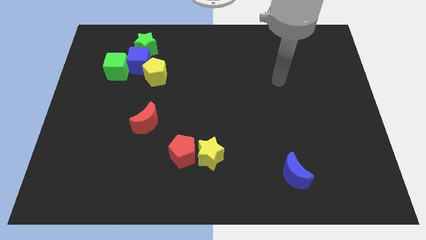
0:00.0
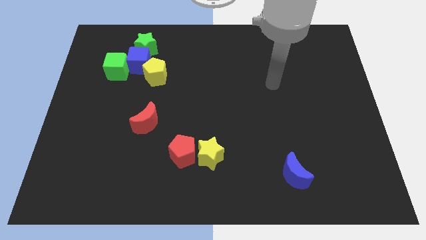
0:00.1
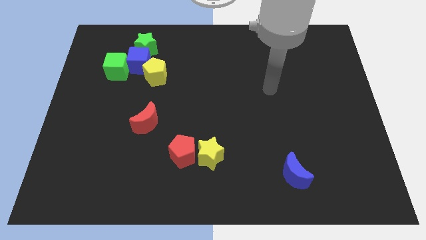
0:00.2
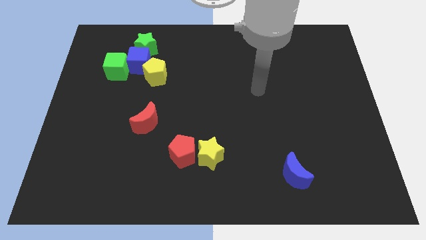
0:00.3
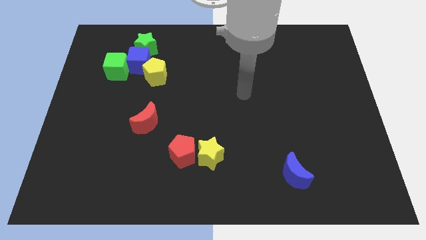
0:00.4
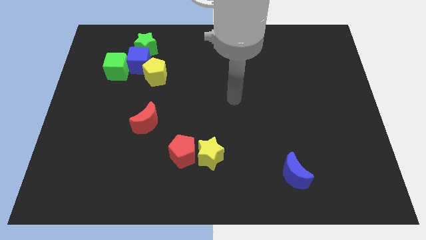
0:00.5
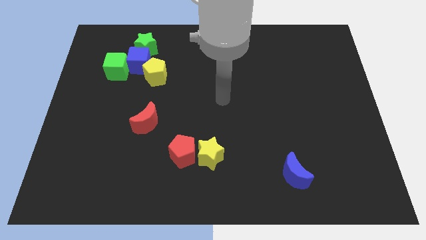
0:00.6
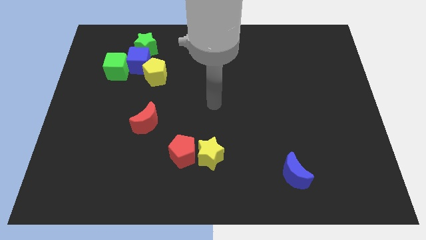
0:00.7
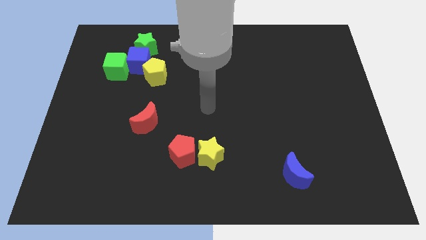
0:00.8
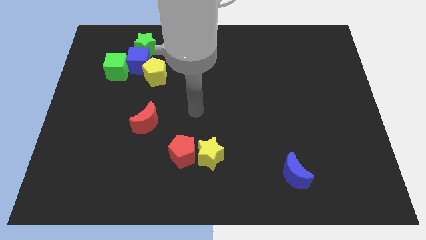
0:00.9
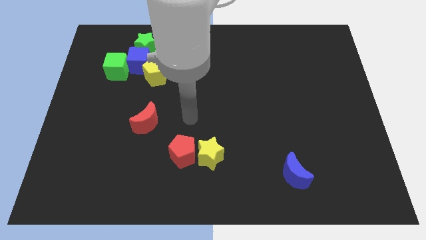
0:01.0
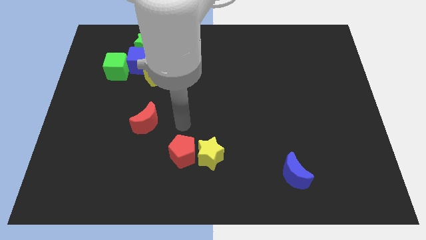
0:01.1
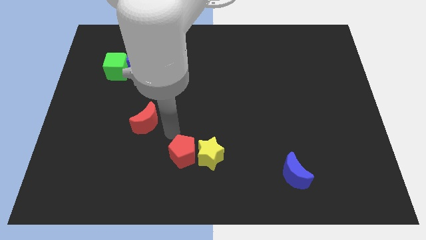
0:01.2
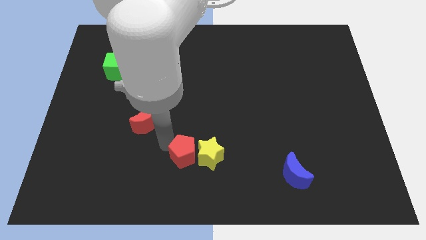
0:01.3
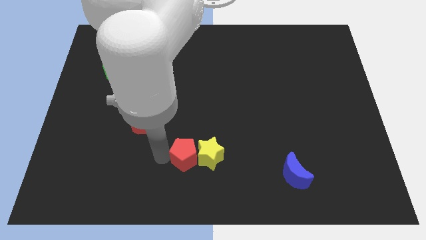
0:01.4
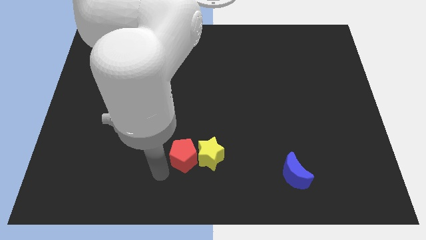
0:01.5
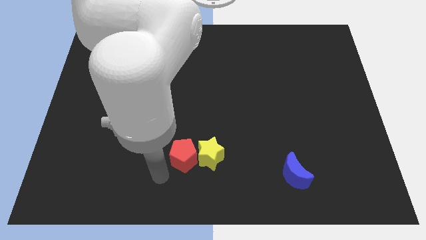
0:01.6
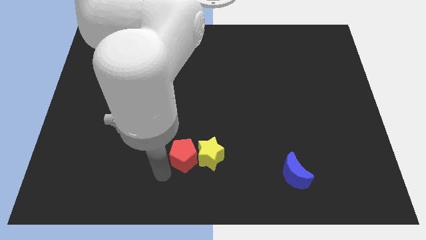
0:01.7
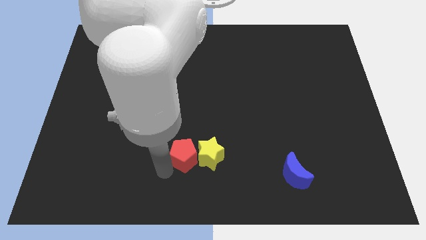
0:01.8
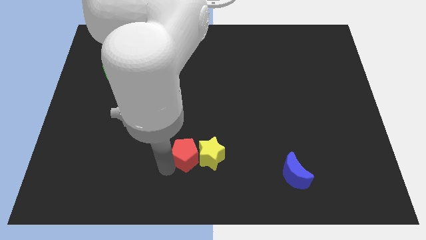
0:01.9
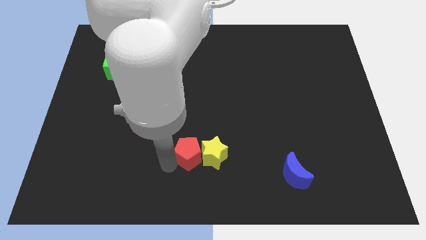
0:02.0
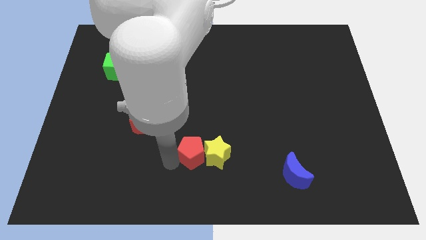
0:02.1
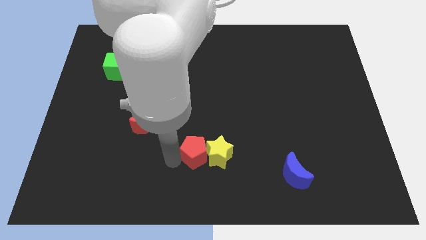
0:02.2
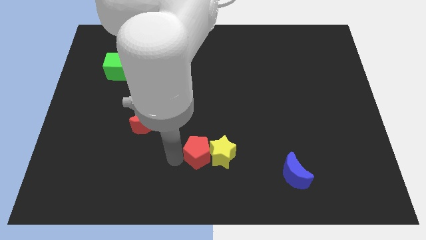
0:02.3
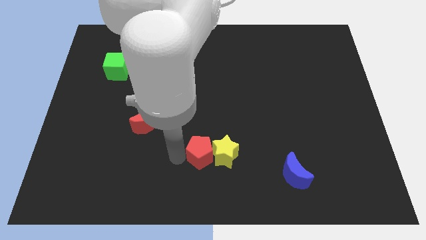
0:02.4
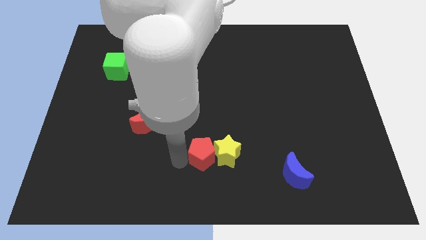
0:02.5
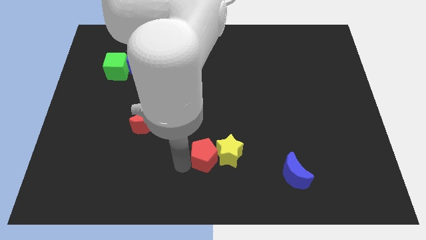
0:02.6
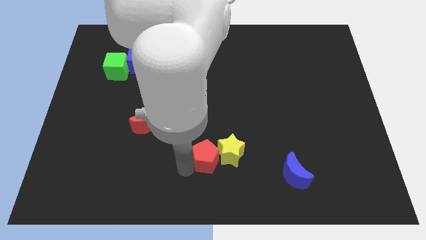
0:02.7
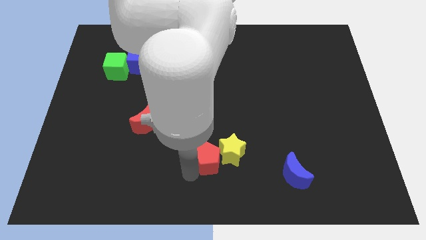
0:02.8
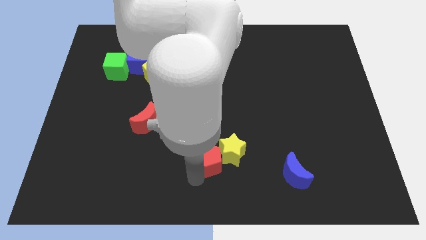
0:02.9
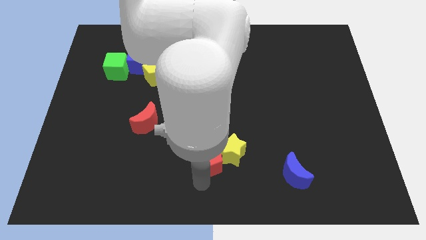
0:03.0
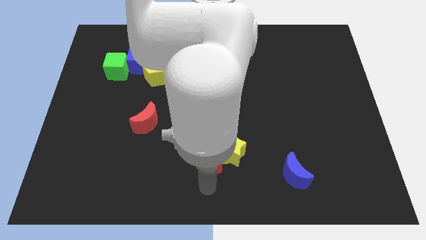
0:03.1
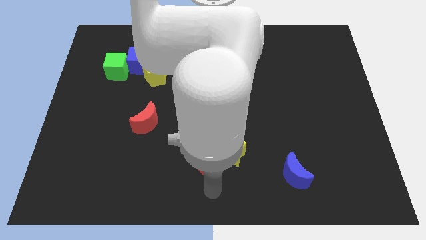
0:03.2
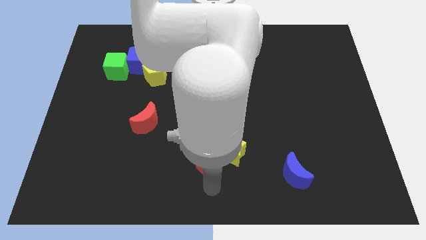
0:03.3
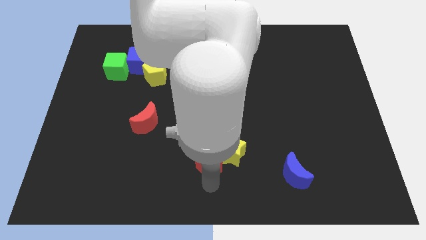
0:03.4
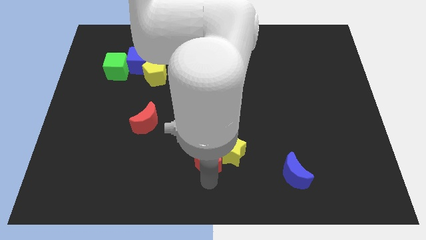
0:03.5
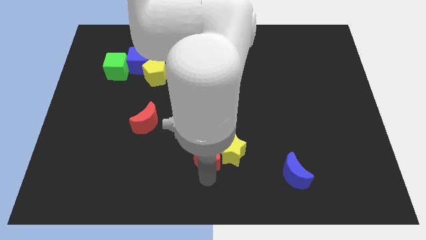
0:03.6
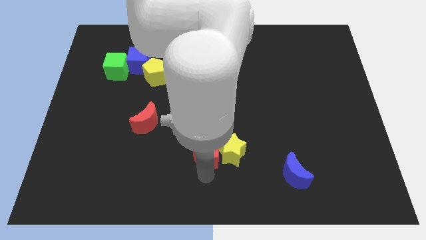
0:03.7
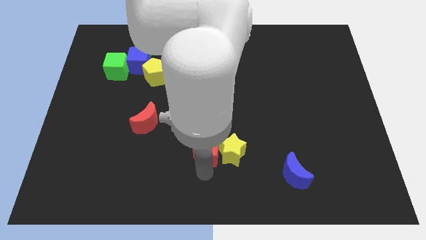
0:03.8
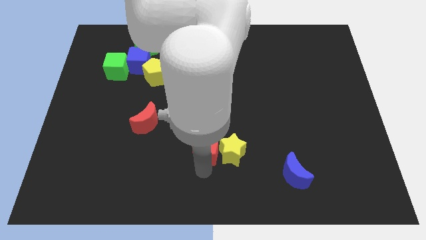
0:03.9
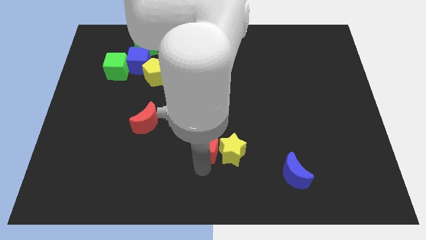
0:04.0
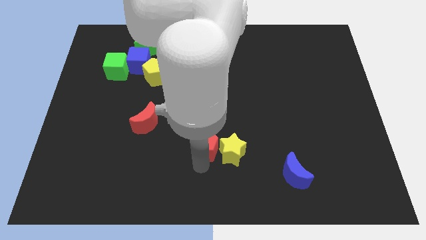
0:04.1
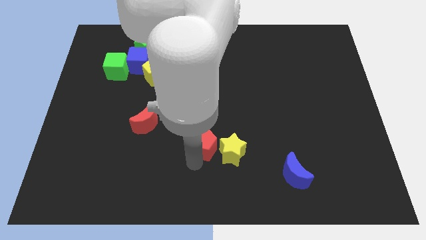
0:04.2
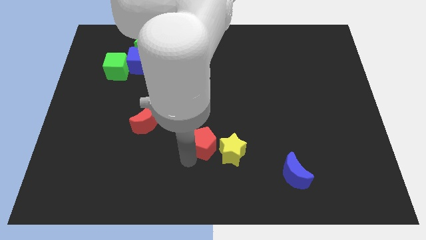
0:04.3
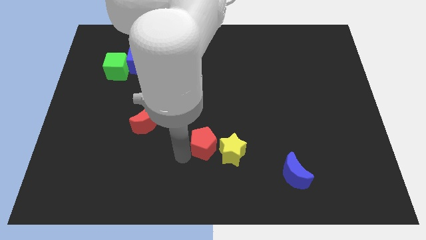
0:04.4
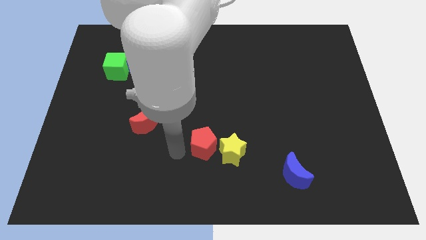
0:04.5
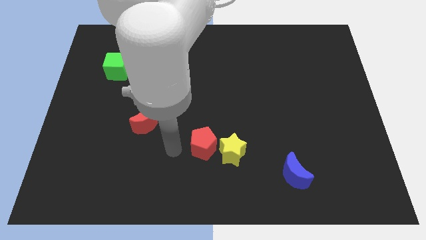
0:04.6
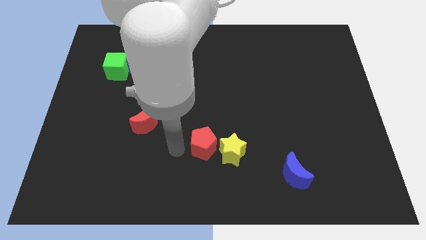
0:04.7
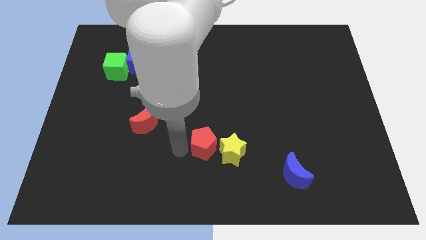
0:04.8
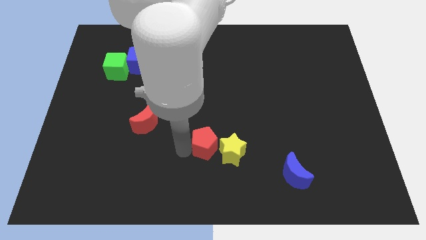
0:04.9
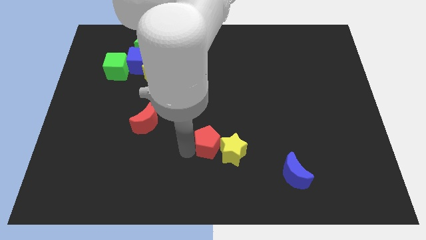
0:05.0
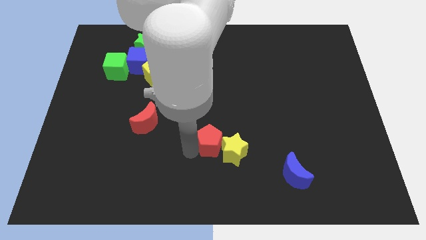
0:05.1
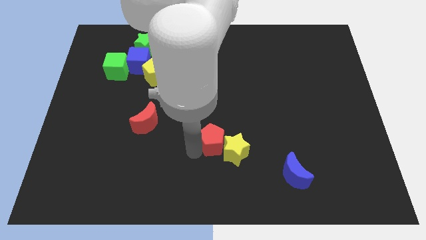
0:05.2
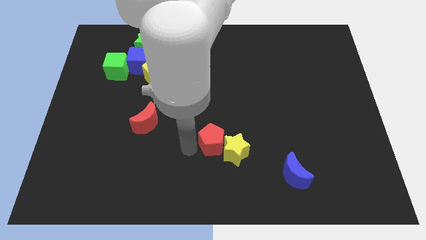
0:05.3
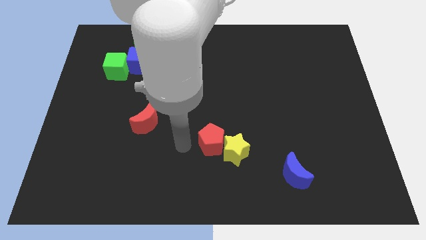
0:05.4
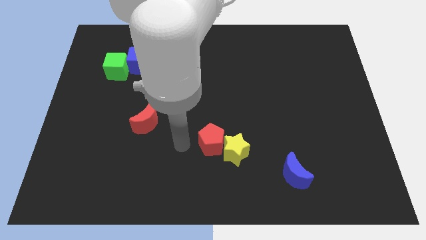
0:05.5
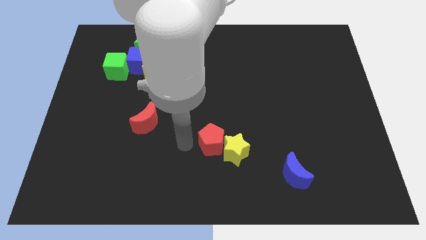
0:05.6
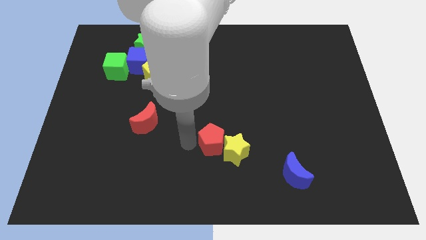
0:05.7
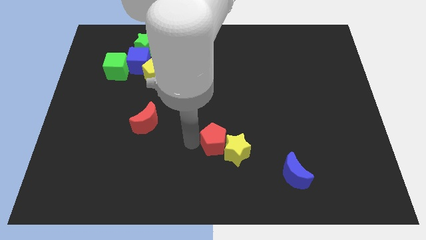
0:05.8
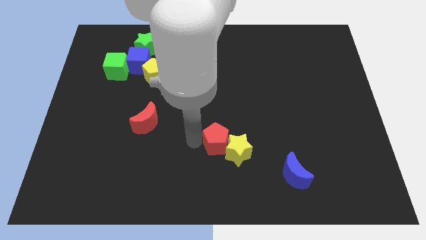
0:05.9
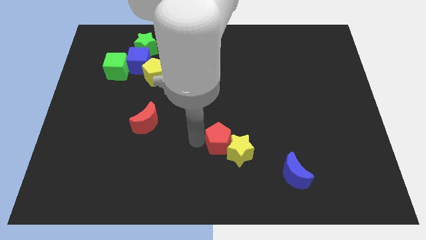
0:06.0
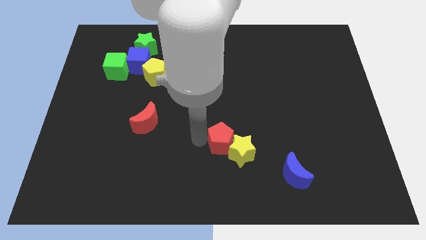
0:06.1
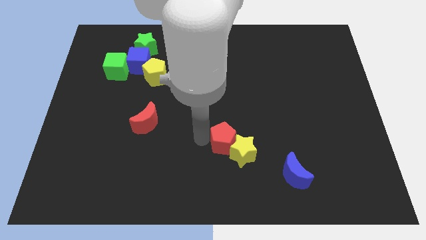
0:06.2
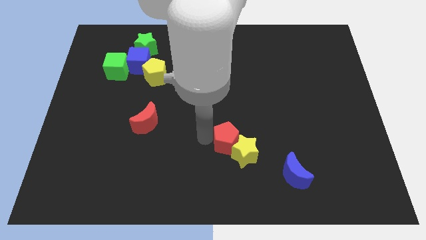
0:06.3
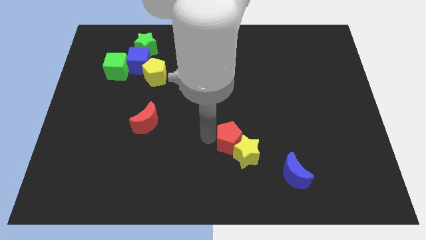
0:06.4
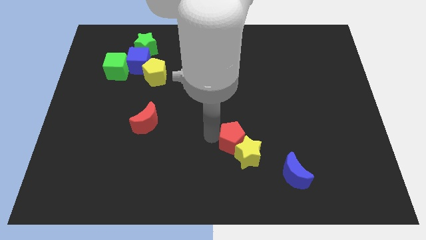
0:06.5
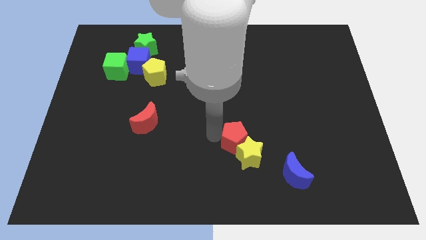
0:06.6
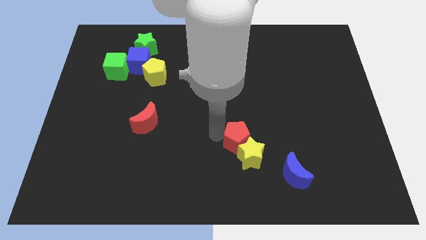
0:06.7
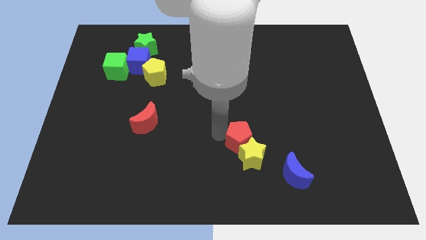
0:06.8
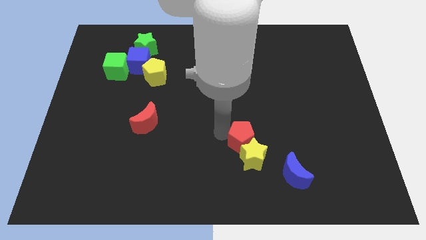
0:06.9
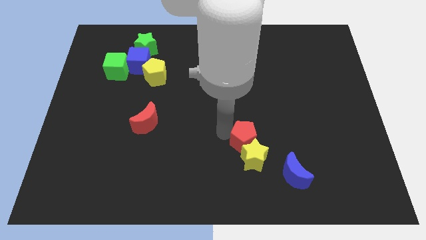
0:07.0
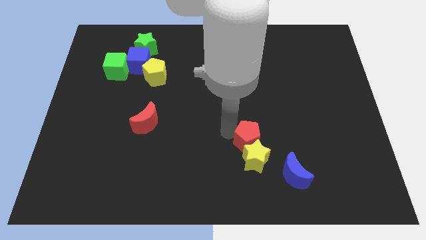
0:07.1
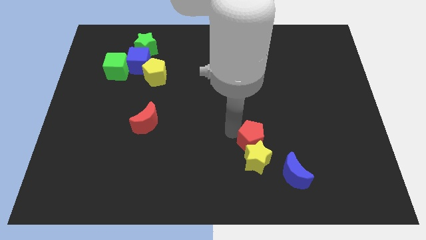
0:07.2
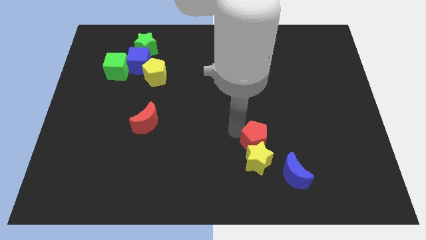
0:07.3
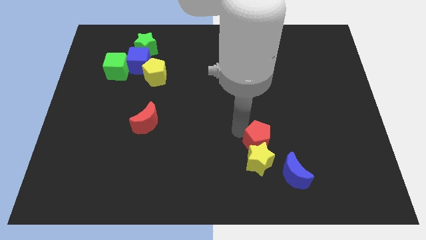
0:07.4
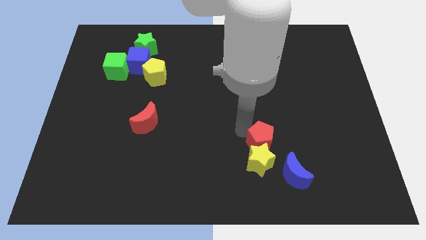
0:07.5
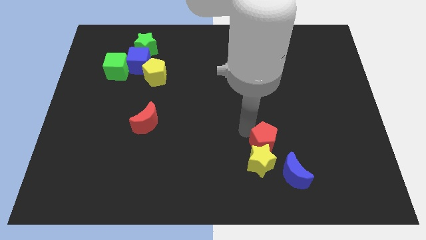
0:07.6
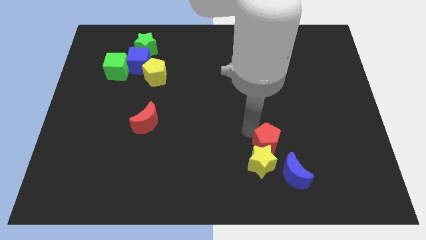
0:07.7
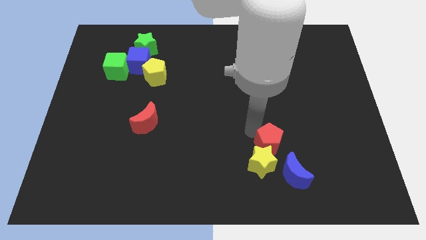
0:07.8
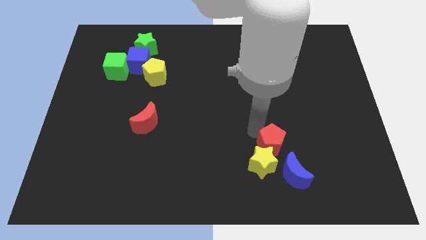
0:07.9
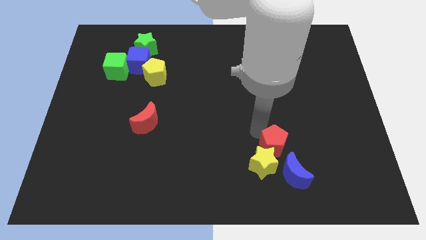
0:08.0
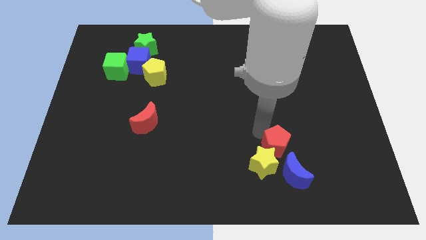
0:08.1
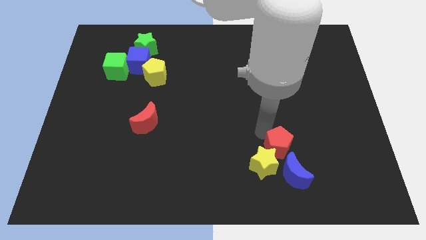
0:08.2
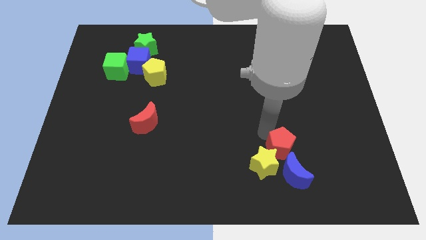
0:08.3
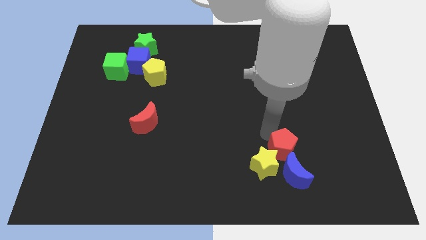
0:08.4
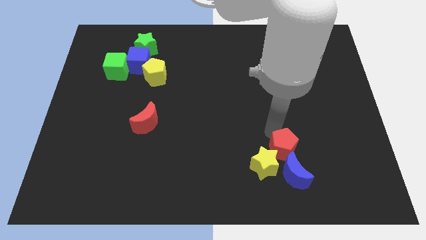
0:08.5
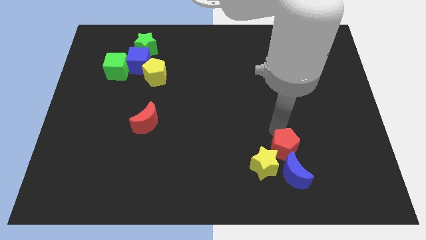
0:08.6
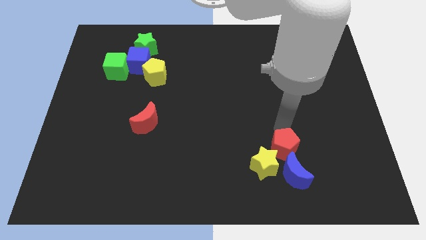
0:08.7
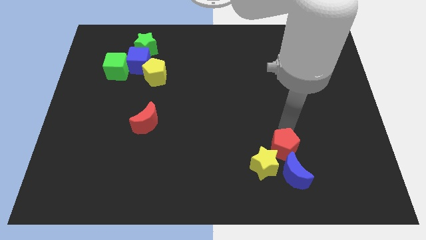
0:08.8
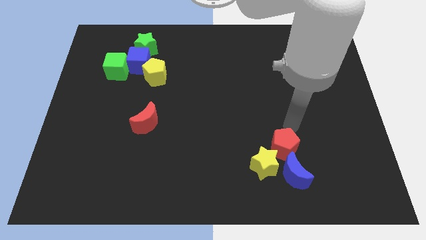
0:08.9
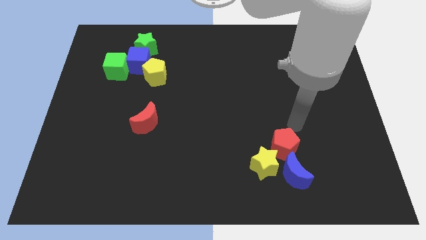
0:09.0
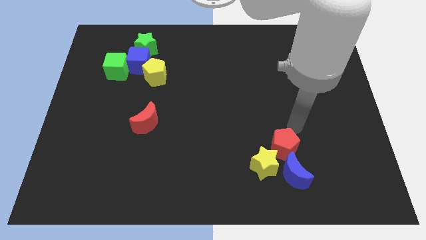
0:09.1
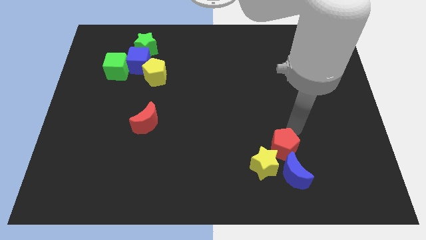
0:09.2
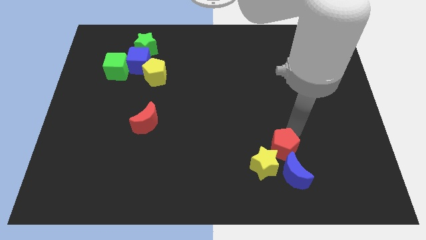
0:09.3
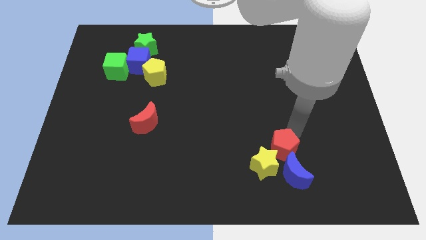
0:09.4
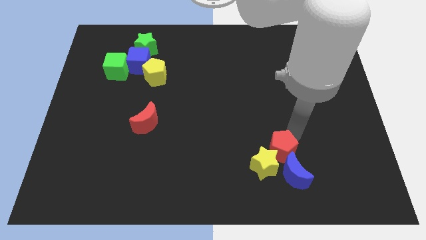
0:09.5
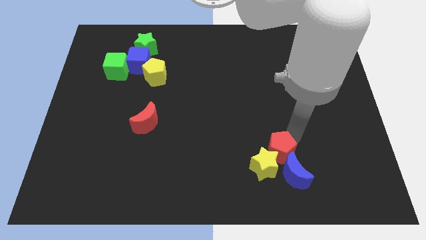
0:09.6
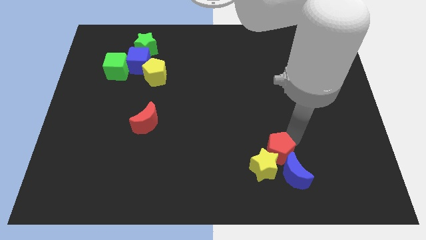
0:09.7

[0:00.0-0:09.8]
put the red pentagon towards the blue moon
